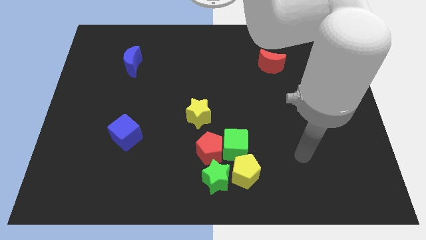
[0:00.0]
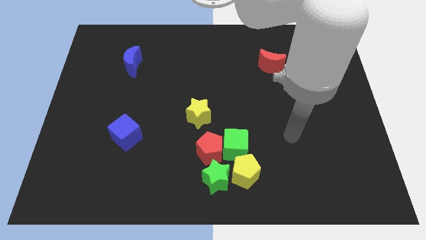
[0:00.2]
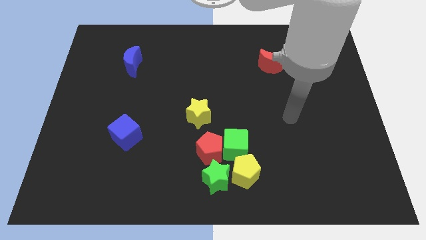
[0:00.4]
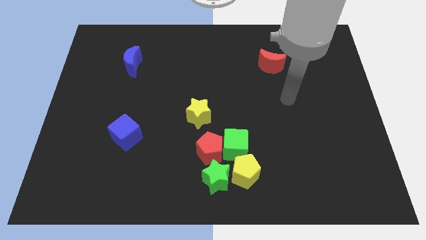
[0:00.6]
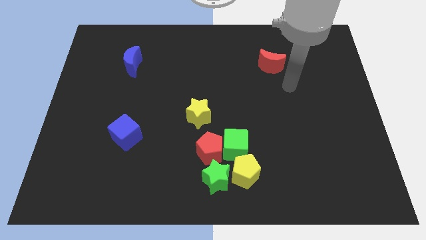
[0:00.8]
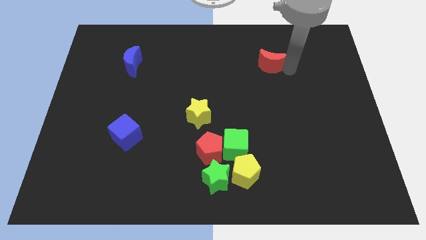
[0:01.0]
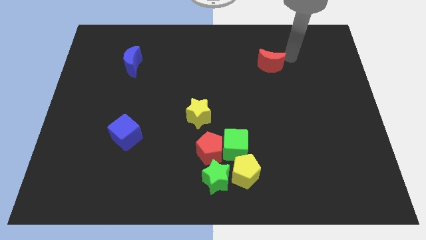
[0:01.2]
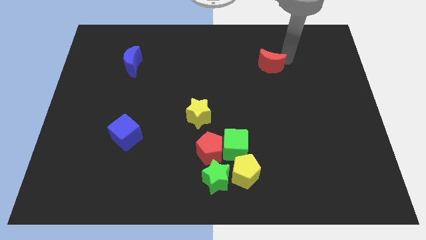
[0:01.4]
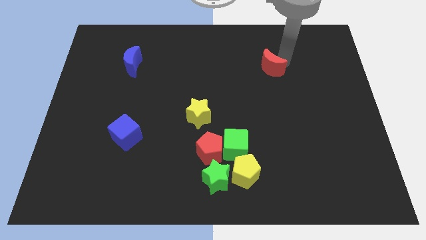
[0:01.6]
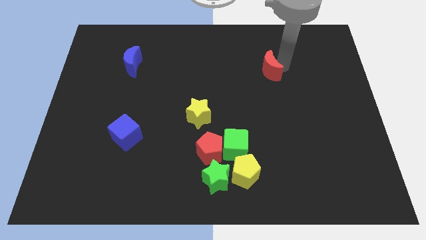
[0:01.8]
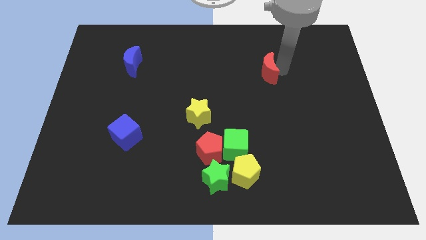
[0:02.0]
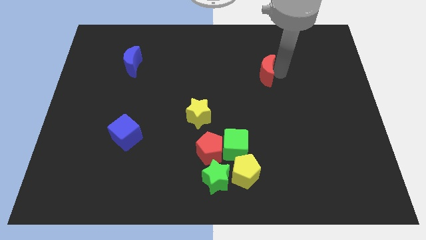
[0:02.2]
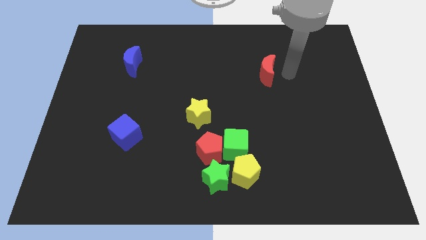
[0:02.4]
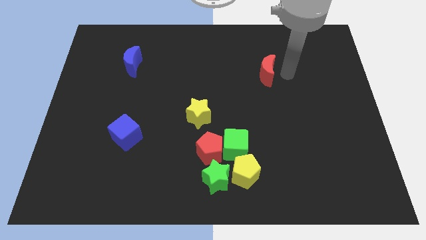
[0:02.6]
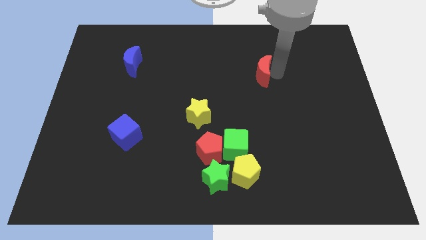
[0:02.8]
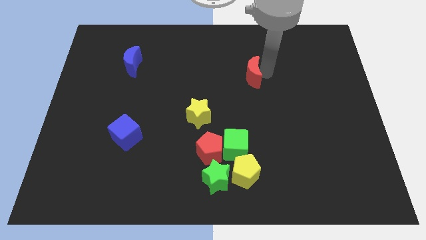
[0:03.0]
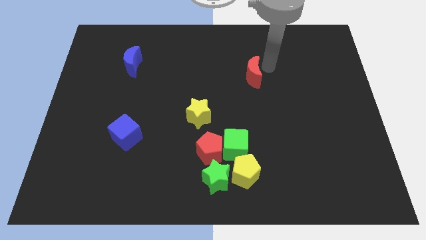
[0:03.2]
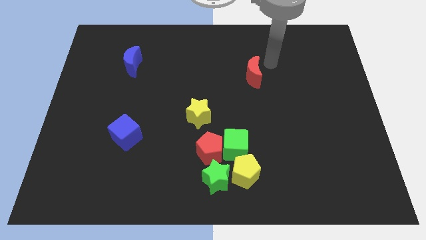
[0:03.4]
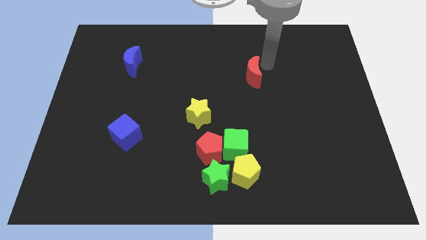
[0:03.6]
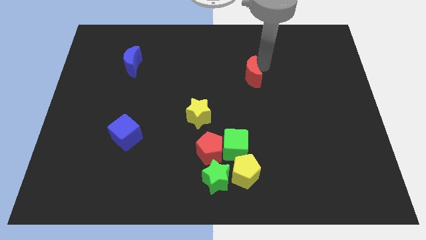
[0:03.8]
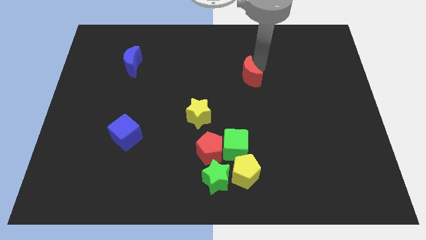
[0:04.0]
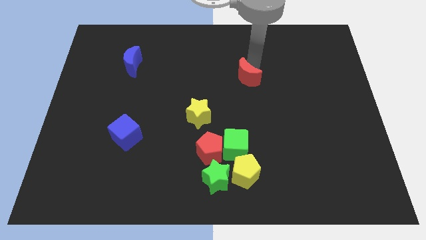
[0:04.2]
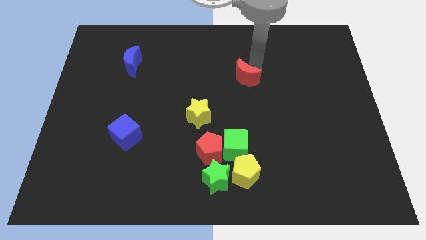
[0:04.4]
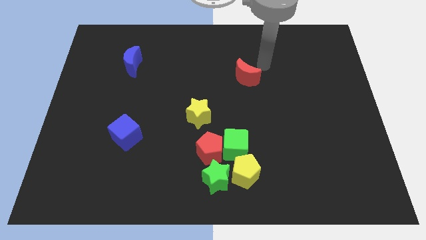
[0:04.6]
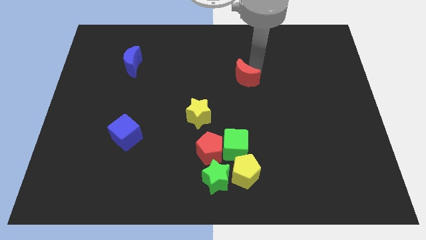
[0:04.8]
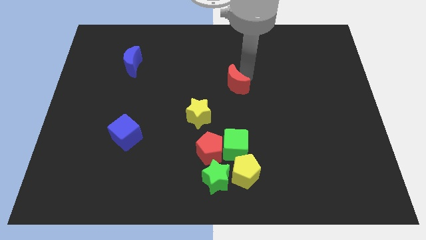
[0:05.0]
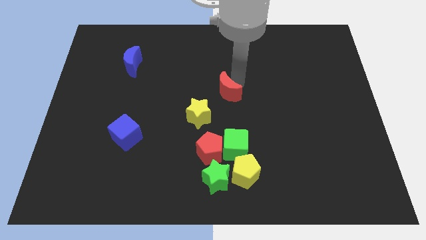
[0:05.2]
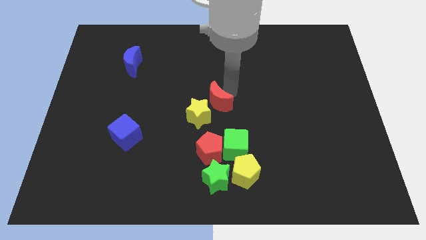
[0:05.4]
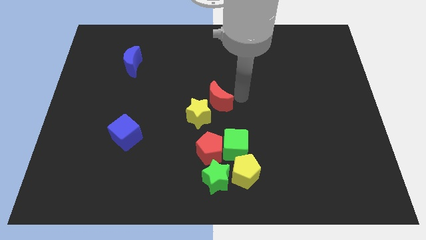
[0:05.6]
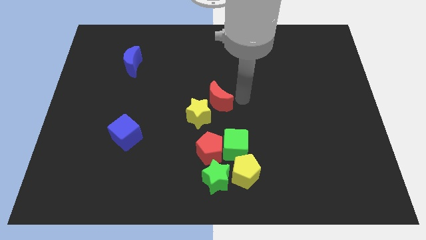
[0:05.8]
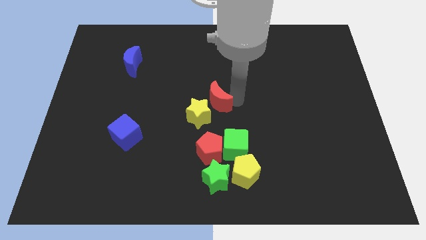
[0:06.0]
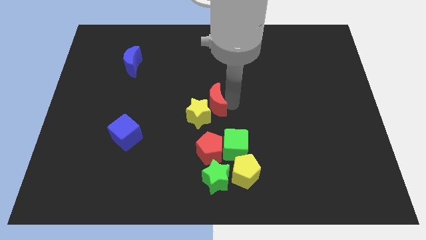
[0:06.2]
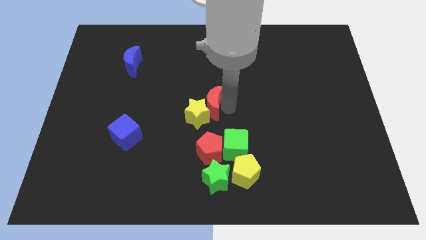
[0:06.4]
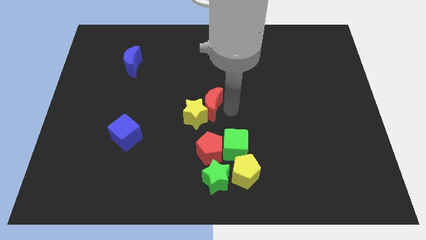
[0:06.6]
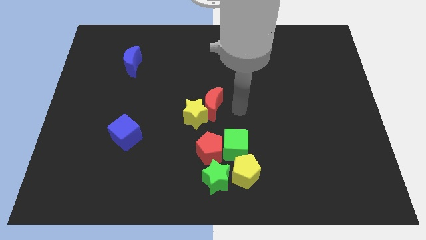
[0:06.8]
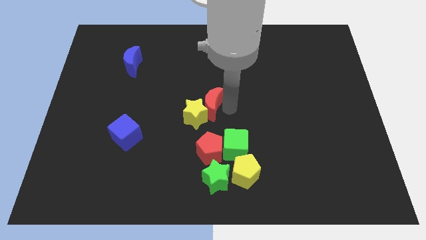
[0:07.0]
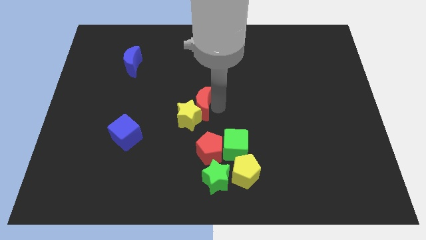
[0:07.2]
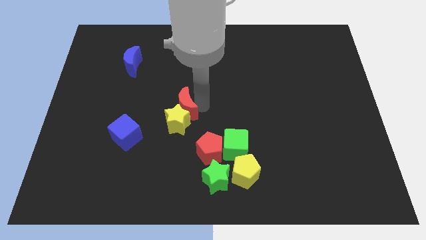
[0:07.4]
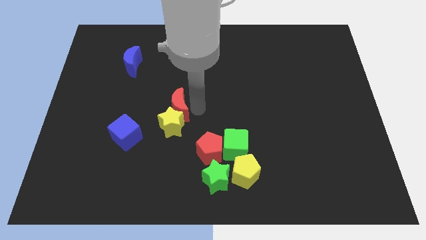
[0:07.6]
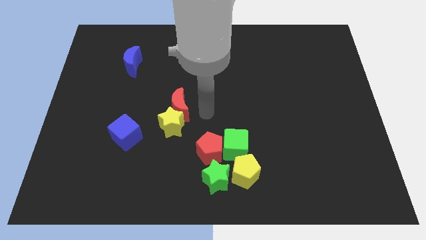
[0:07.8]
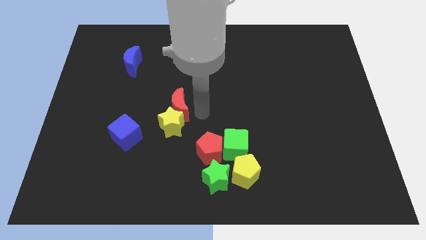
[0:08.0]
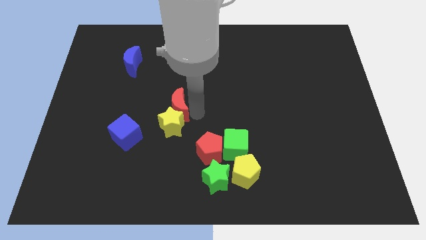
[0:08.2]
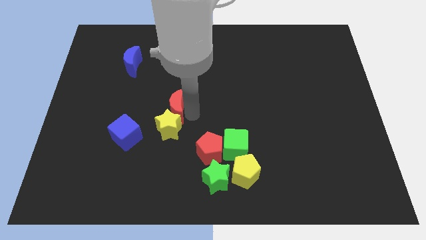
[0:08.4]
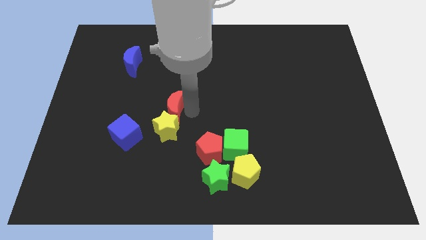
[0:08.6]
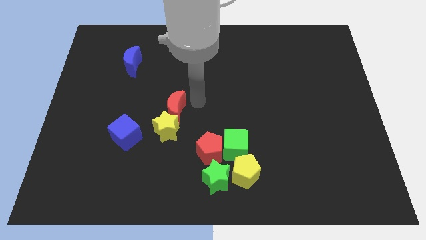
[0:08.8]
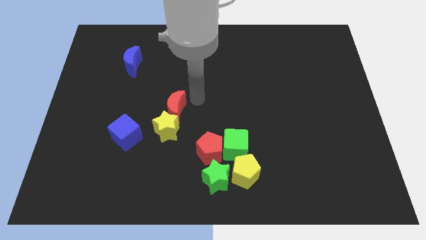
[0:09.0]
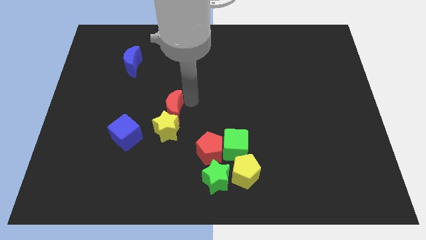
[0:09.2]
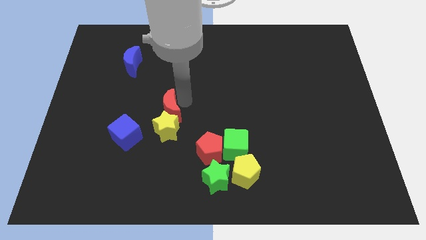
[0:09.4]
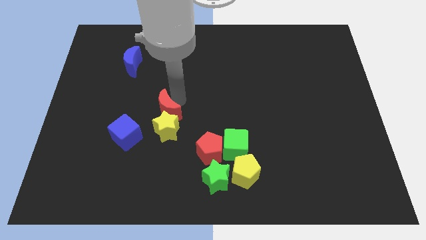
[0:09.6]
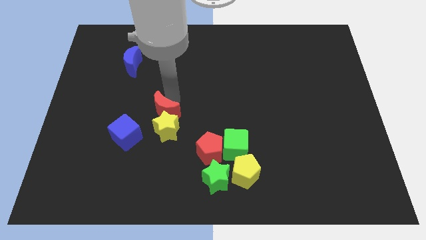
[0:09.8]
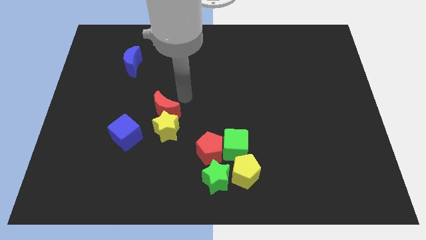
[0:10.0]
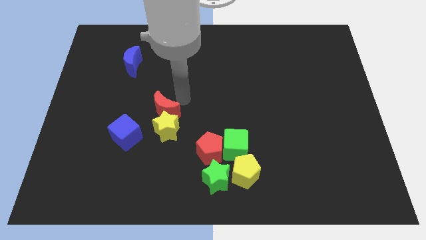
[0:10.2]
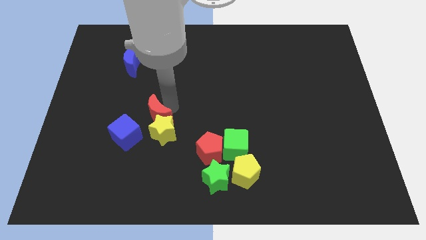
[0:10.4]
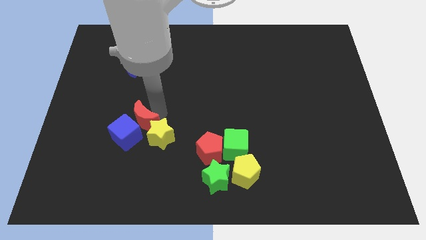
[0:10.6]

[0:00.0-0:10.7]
move the red moon to the blue cube

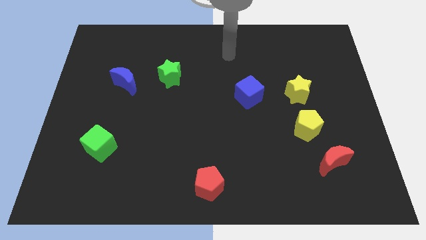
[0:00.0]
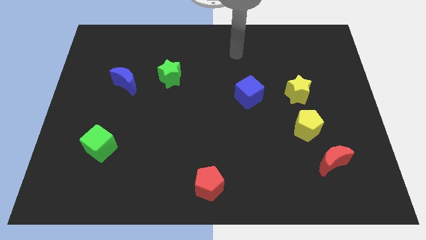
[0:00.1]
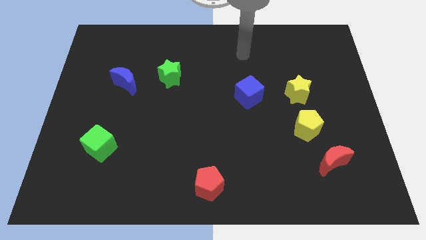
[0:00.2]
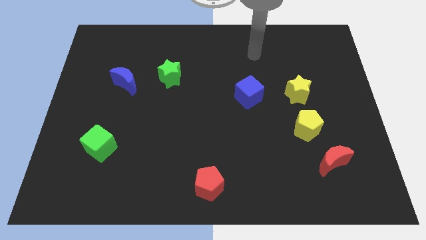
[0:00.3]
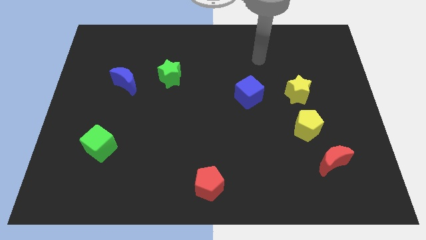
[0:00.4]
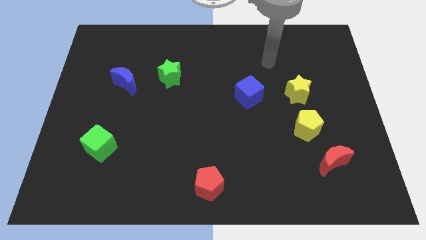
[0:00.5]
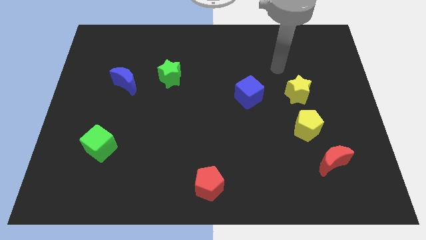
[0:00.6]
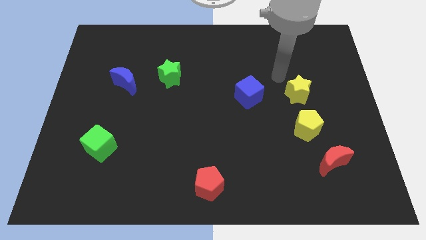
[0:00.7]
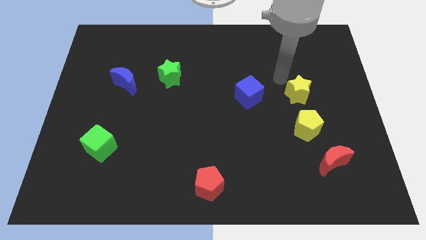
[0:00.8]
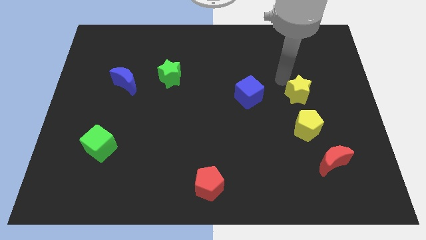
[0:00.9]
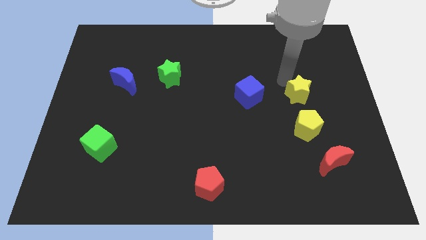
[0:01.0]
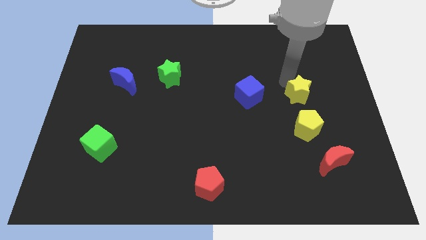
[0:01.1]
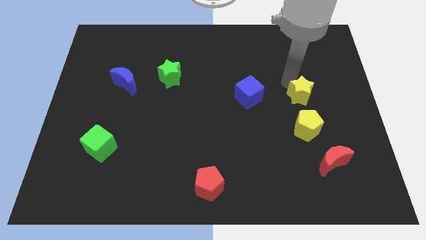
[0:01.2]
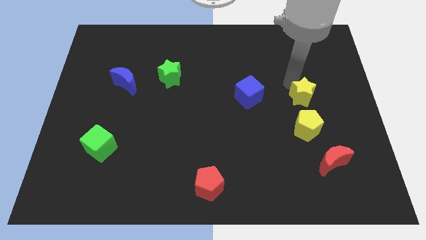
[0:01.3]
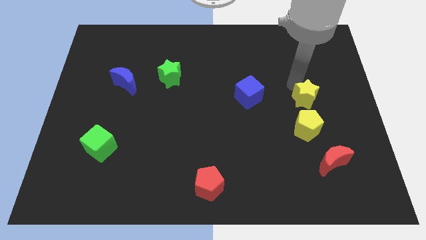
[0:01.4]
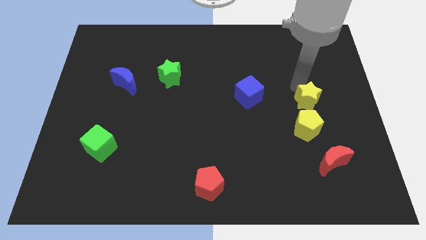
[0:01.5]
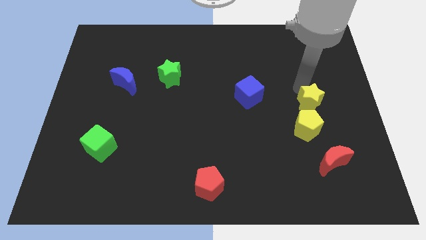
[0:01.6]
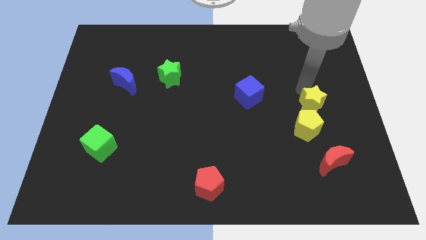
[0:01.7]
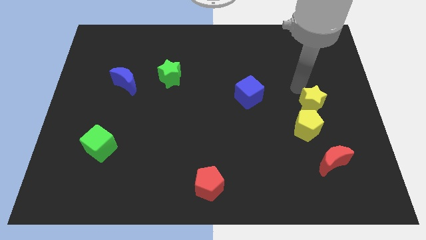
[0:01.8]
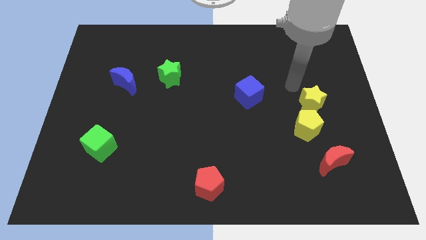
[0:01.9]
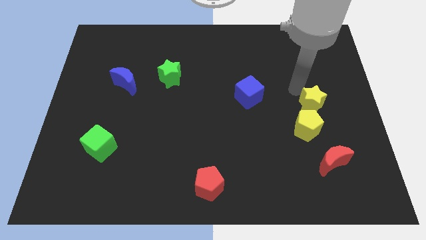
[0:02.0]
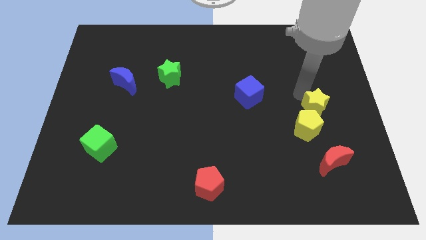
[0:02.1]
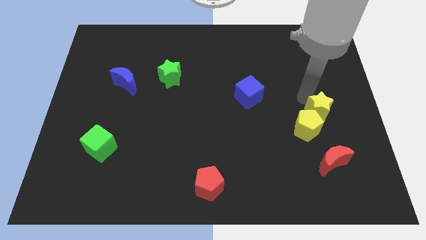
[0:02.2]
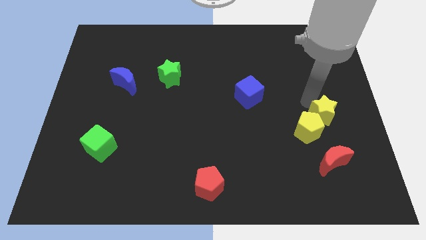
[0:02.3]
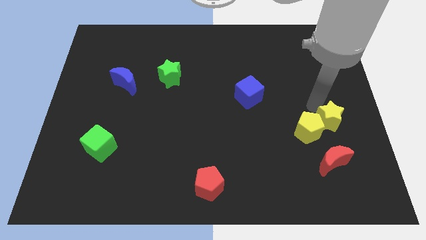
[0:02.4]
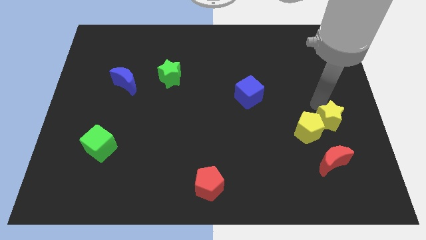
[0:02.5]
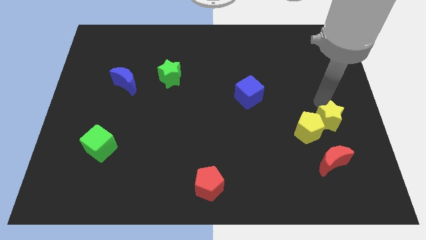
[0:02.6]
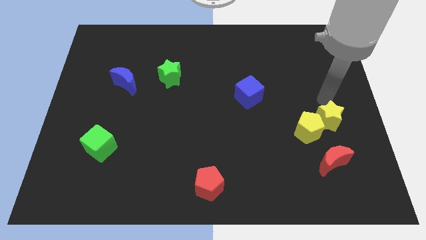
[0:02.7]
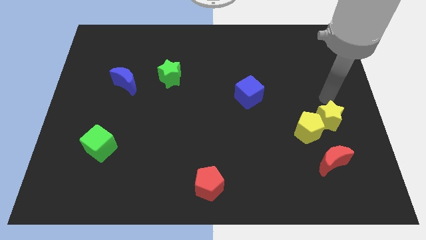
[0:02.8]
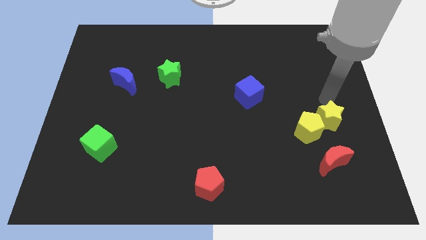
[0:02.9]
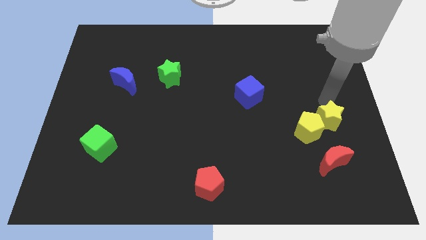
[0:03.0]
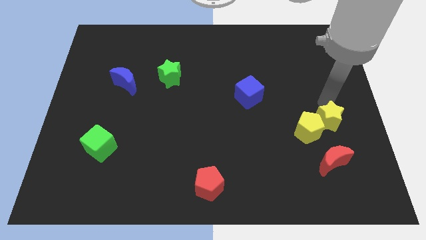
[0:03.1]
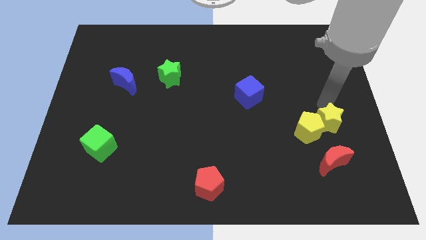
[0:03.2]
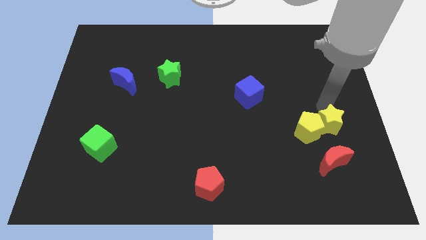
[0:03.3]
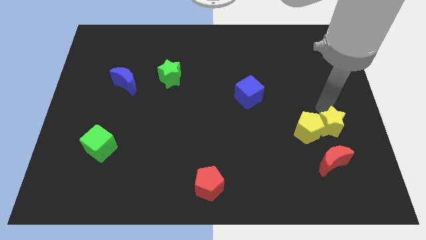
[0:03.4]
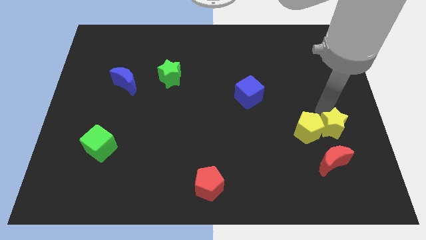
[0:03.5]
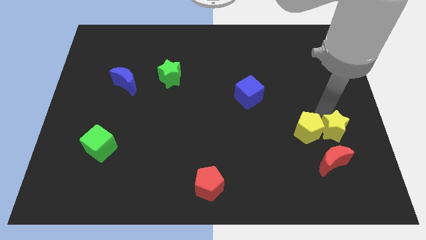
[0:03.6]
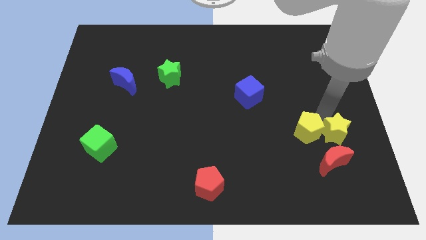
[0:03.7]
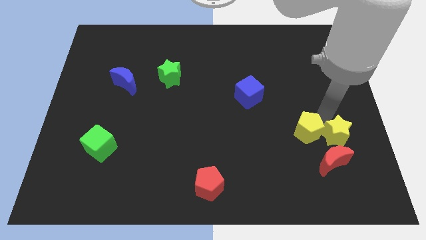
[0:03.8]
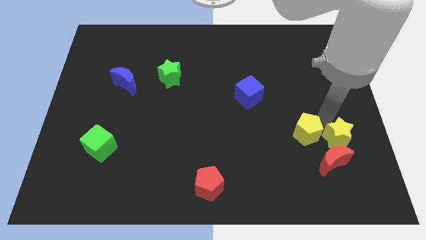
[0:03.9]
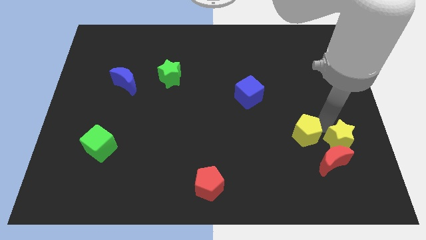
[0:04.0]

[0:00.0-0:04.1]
put the yellow star towards the red moon
